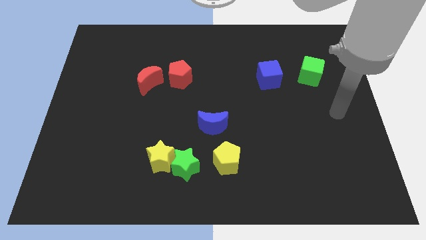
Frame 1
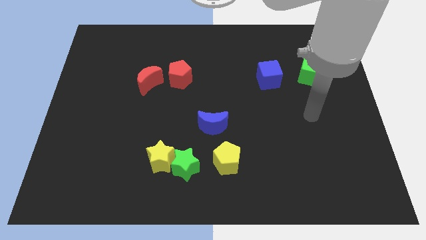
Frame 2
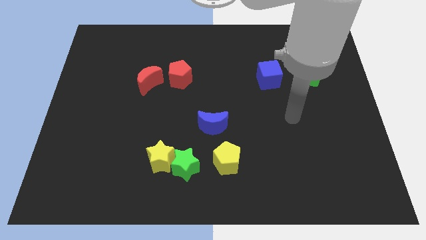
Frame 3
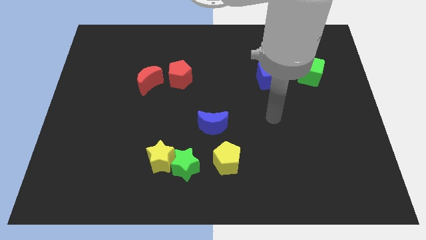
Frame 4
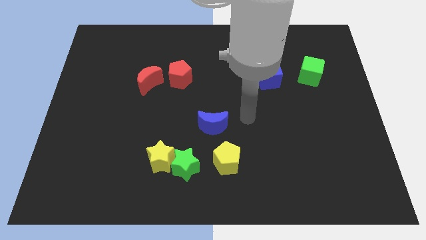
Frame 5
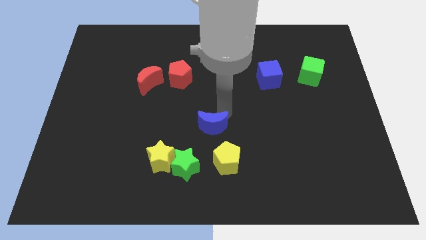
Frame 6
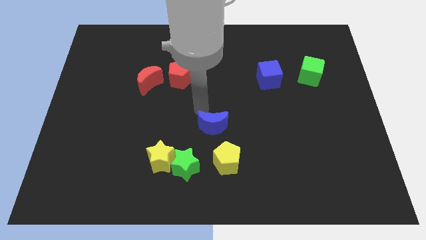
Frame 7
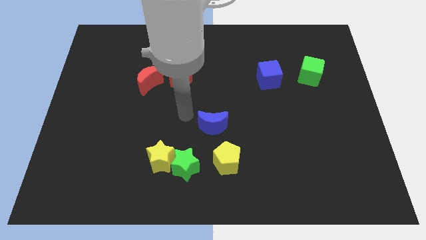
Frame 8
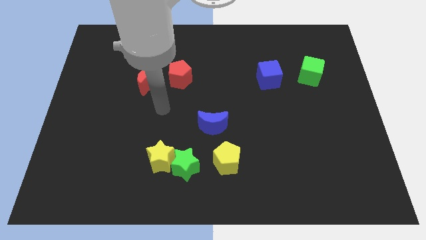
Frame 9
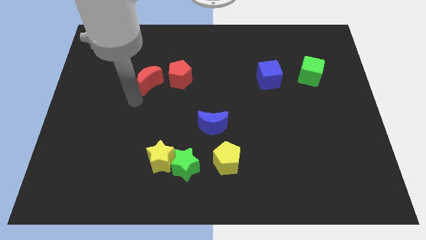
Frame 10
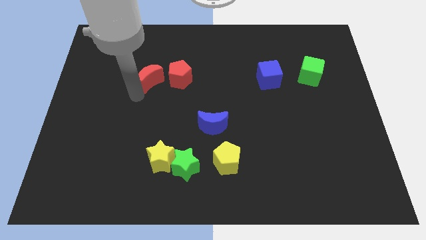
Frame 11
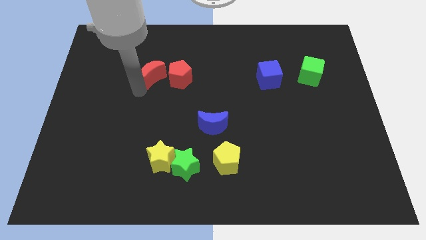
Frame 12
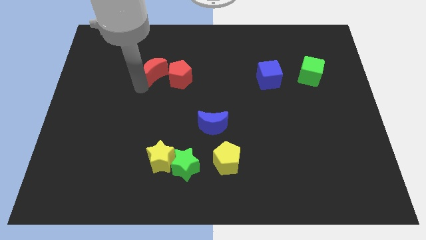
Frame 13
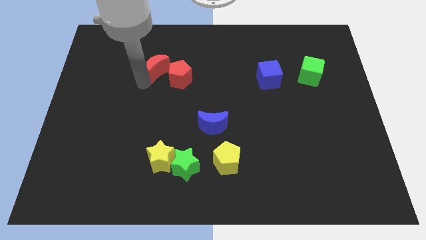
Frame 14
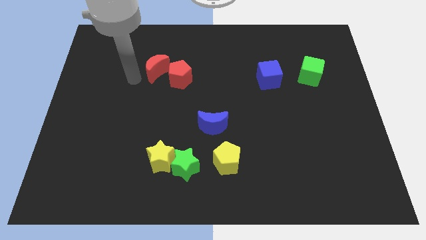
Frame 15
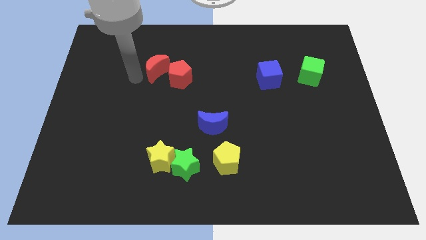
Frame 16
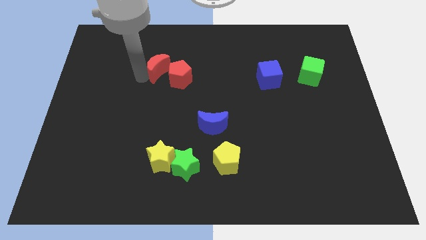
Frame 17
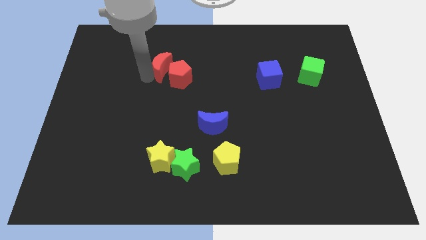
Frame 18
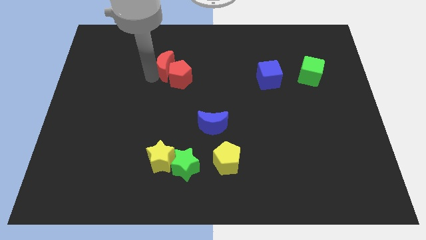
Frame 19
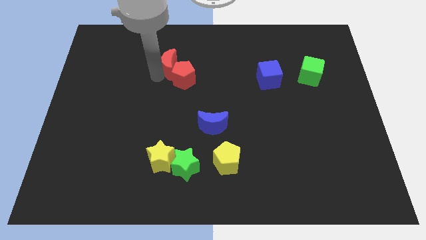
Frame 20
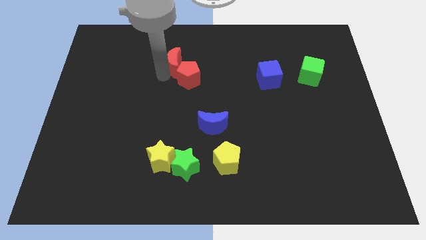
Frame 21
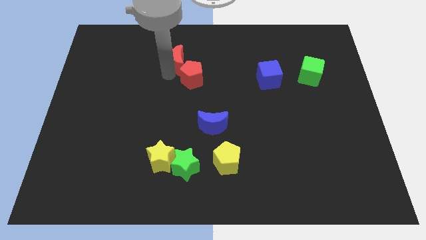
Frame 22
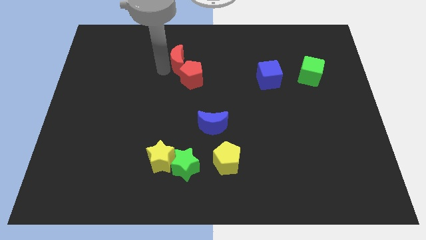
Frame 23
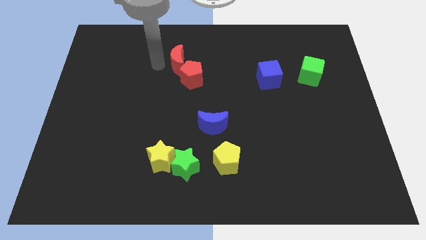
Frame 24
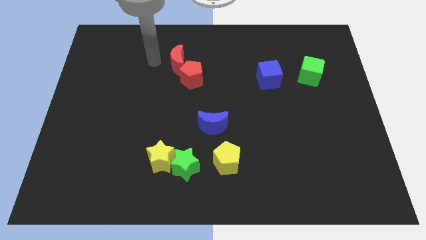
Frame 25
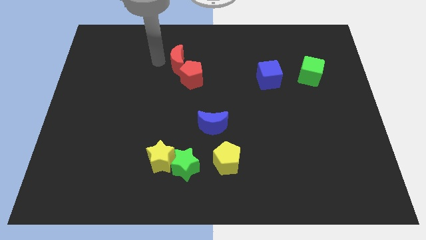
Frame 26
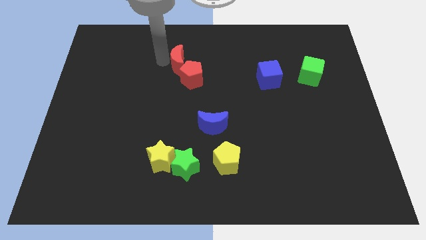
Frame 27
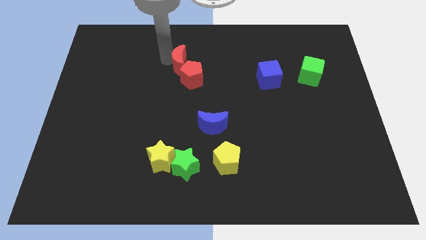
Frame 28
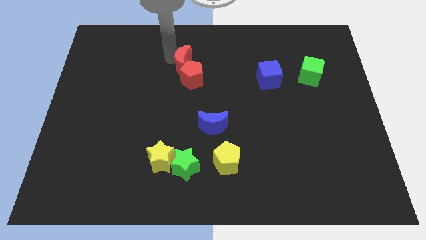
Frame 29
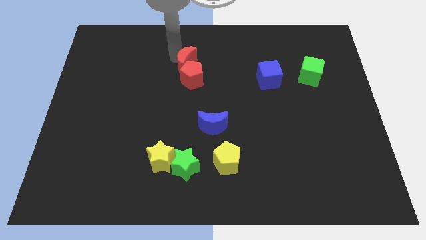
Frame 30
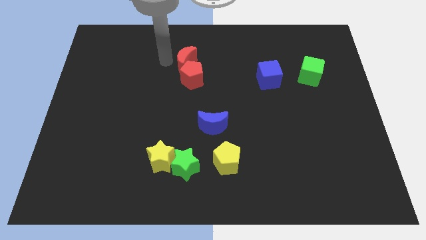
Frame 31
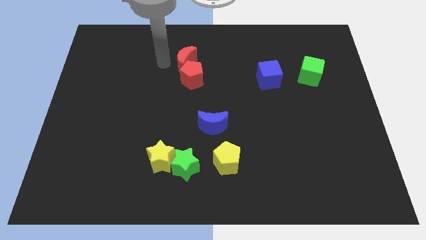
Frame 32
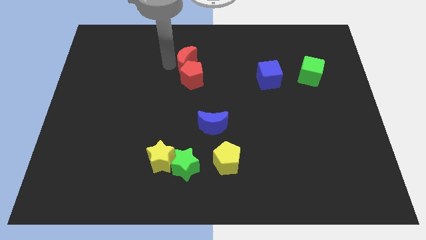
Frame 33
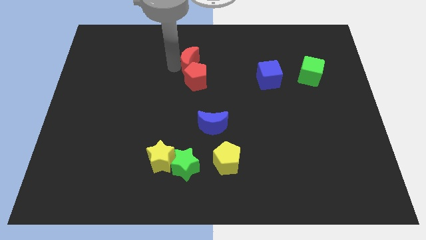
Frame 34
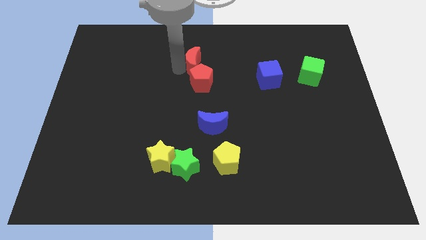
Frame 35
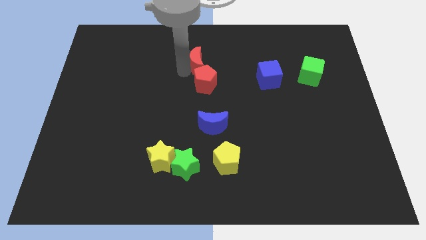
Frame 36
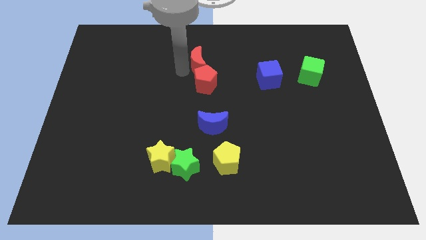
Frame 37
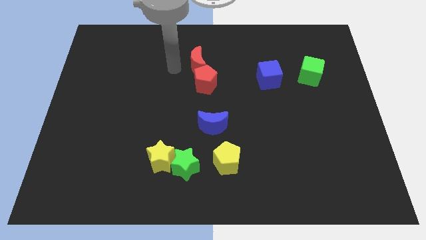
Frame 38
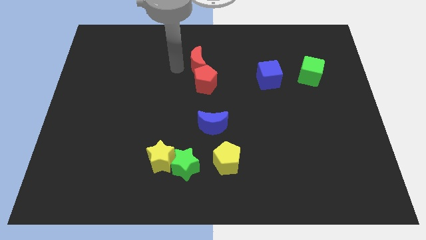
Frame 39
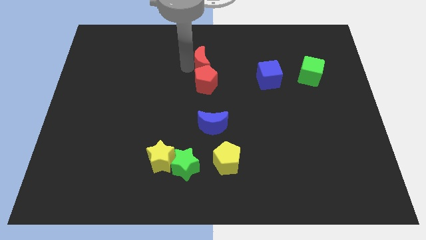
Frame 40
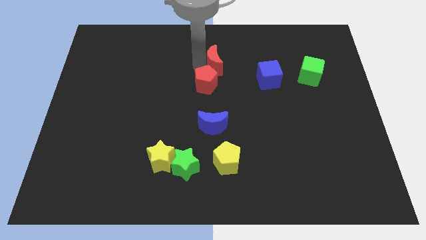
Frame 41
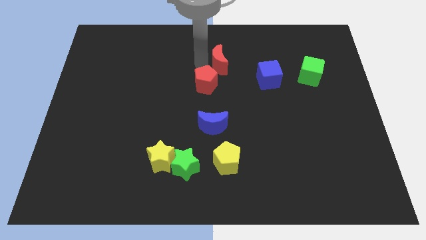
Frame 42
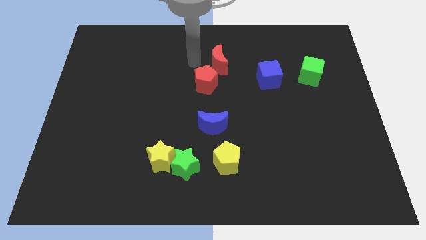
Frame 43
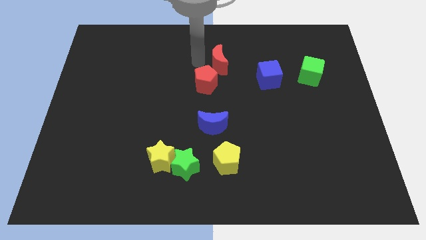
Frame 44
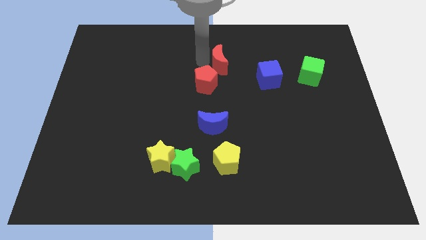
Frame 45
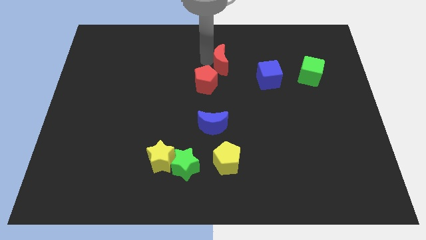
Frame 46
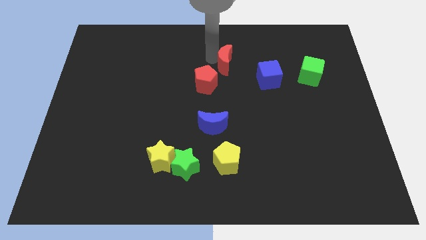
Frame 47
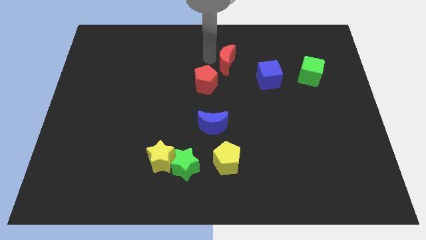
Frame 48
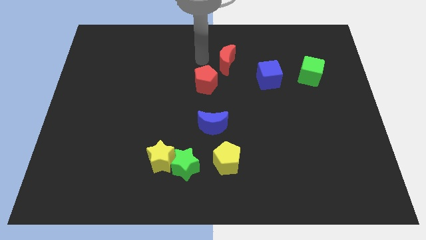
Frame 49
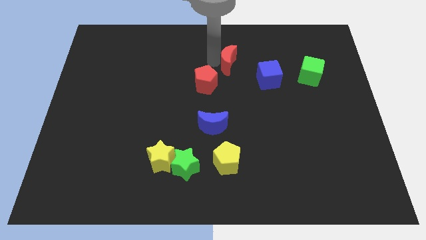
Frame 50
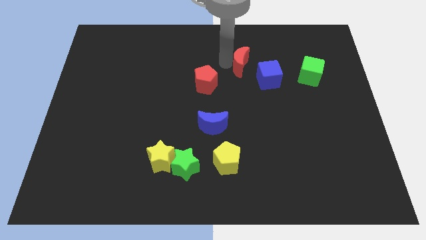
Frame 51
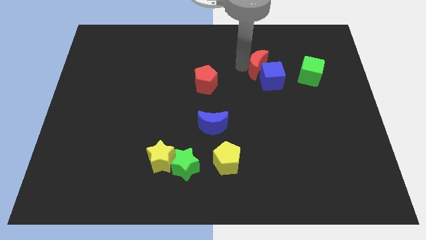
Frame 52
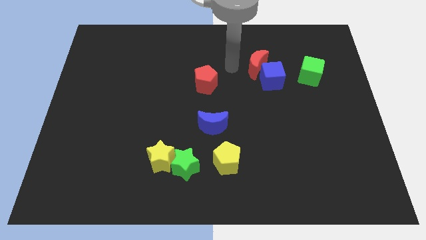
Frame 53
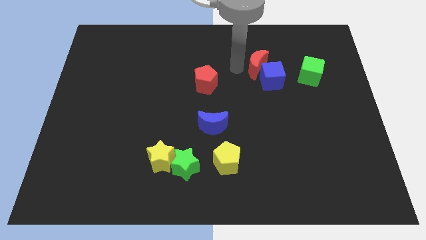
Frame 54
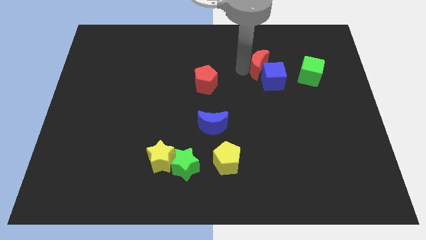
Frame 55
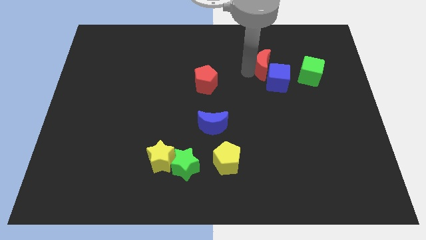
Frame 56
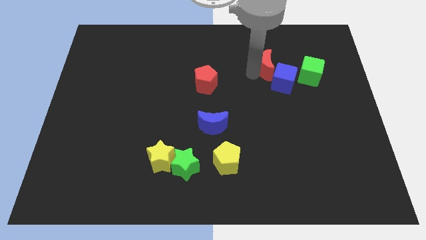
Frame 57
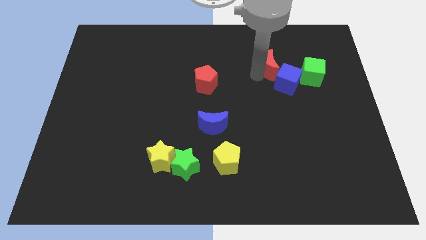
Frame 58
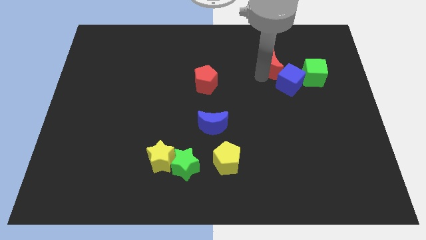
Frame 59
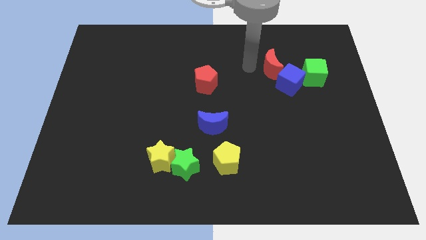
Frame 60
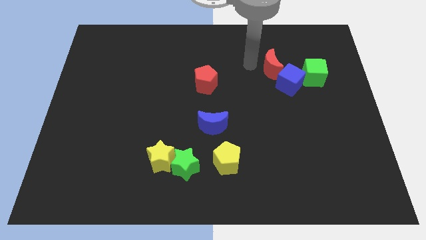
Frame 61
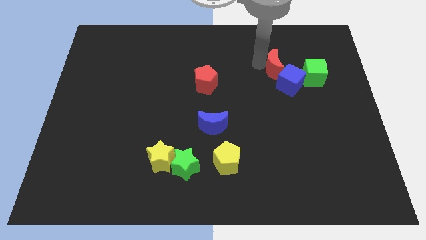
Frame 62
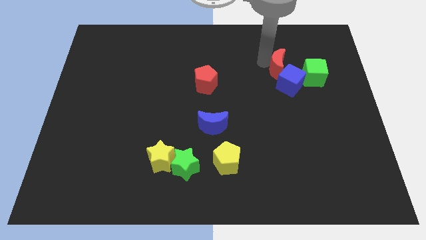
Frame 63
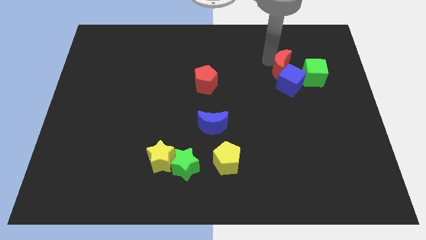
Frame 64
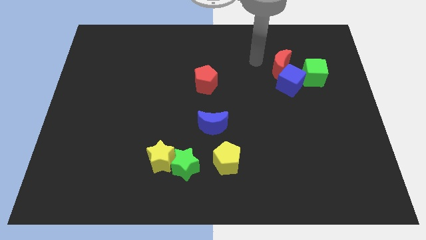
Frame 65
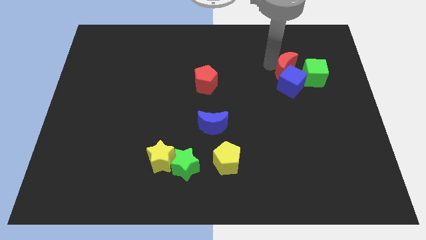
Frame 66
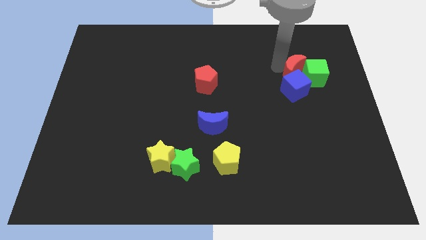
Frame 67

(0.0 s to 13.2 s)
put the red moon next to the green cube

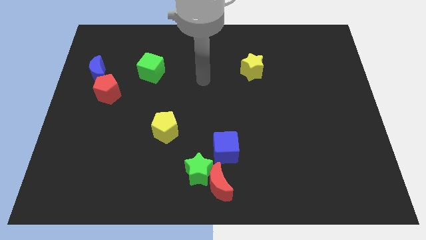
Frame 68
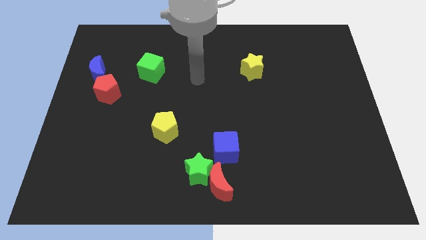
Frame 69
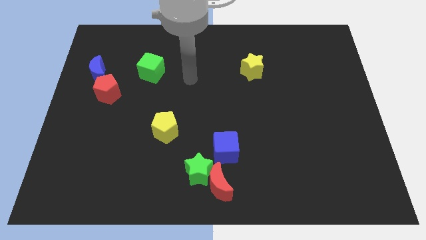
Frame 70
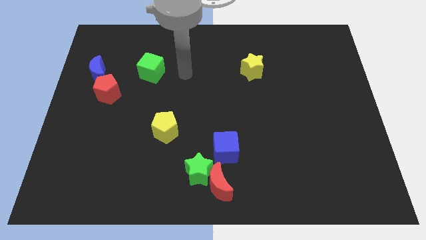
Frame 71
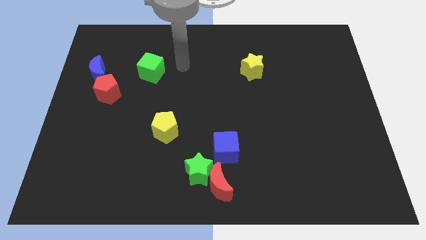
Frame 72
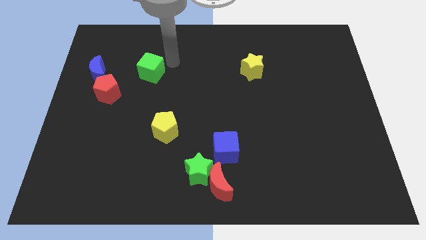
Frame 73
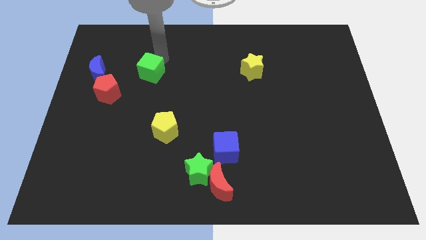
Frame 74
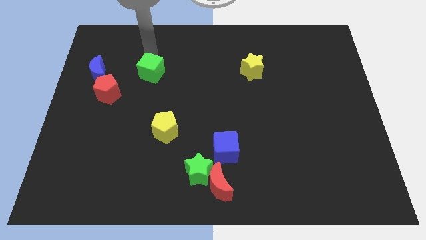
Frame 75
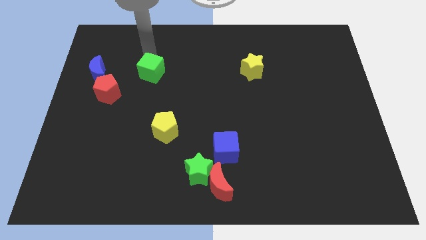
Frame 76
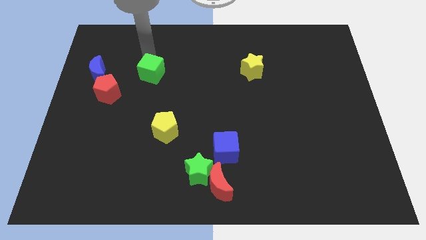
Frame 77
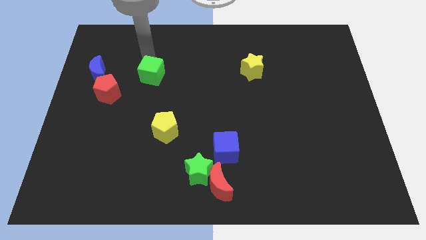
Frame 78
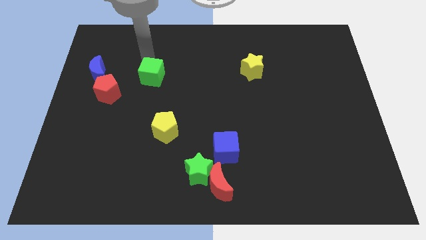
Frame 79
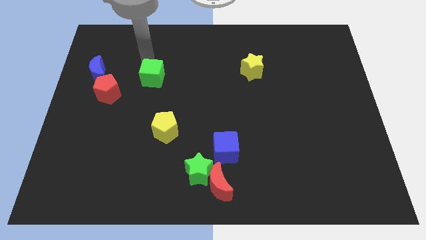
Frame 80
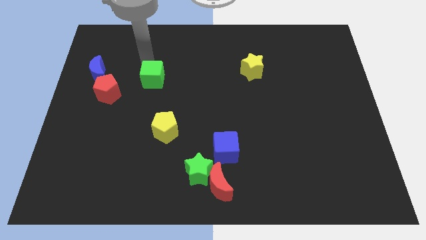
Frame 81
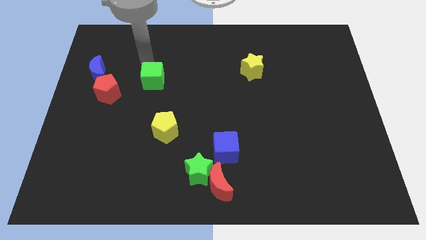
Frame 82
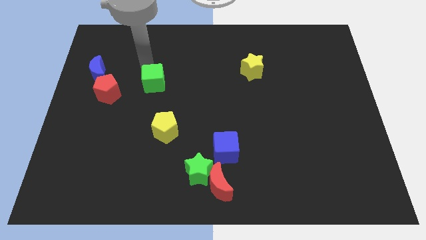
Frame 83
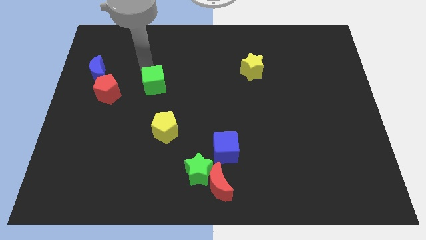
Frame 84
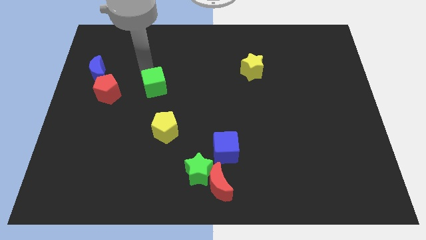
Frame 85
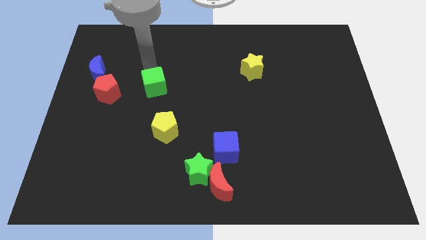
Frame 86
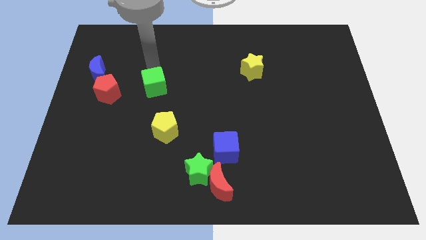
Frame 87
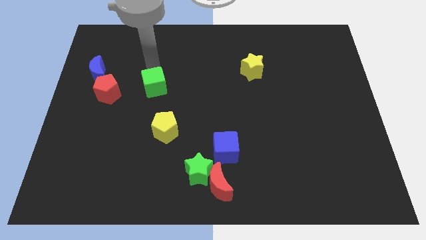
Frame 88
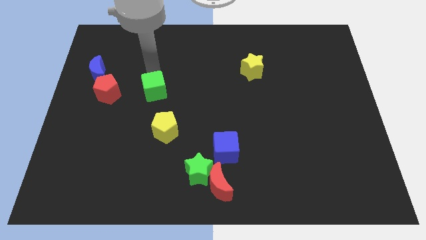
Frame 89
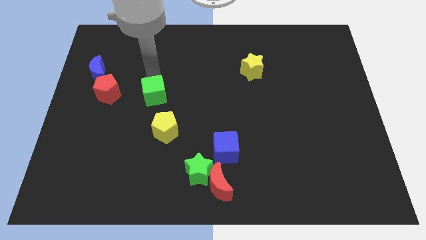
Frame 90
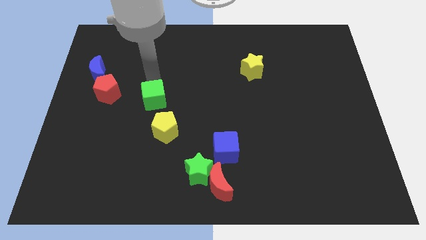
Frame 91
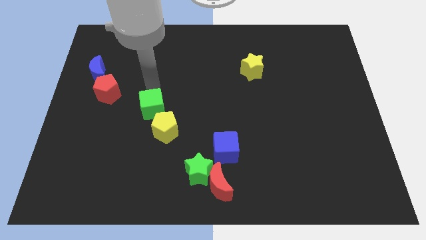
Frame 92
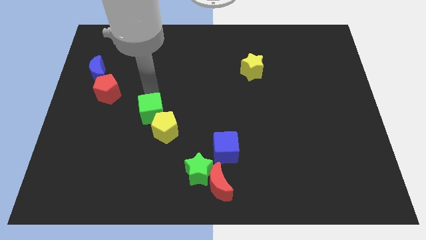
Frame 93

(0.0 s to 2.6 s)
put the green cube towards the yellow pentagon
